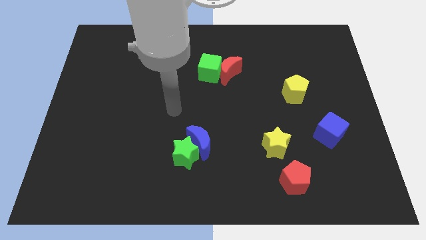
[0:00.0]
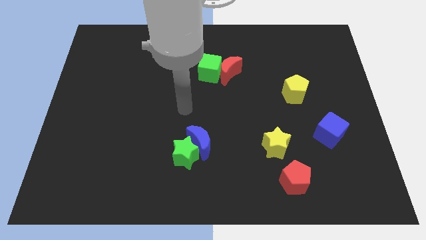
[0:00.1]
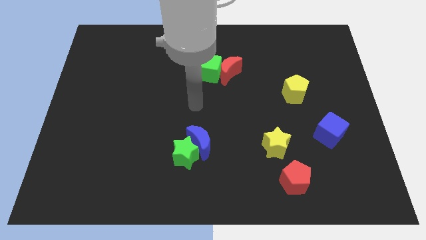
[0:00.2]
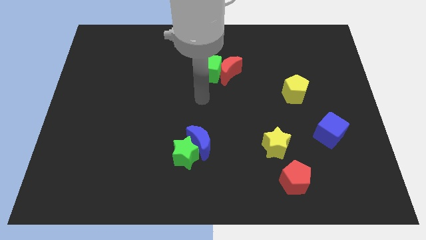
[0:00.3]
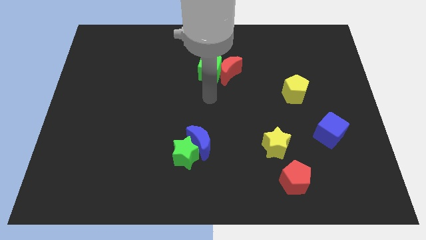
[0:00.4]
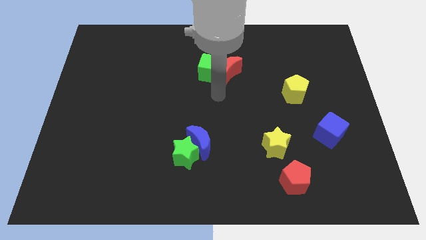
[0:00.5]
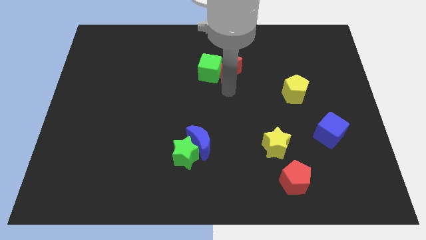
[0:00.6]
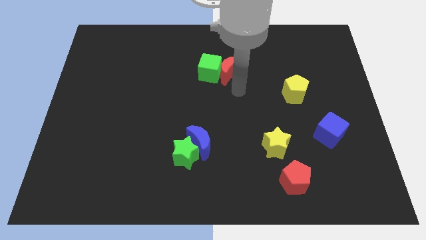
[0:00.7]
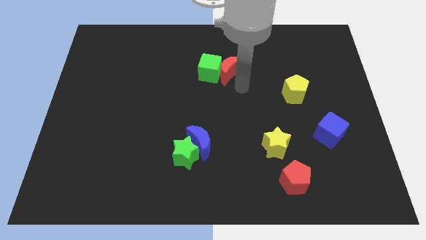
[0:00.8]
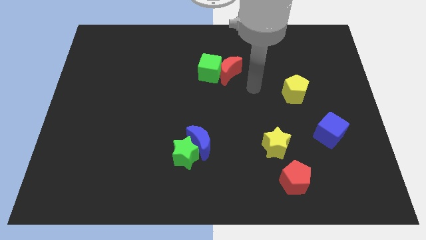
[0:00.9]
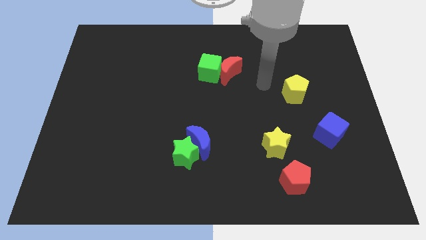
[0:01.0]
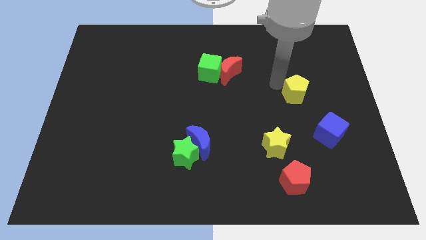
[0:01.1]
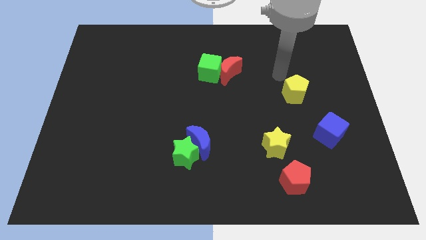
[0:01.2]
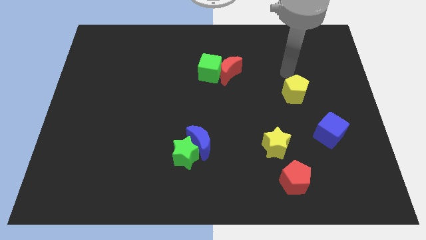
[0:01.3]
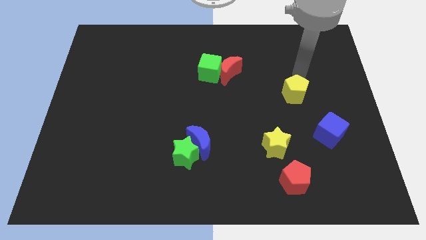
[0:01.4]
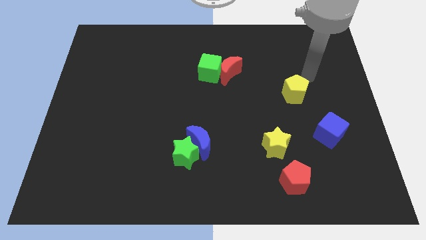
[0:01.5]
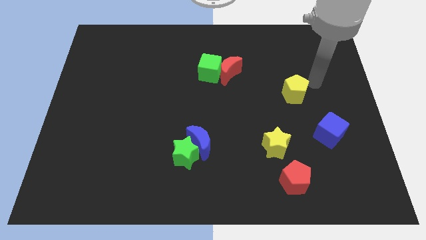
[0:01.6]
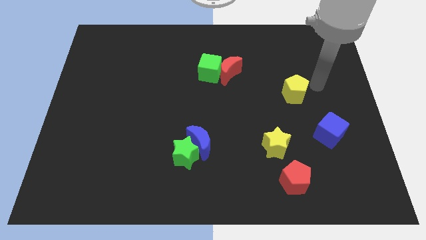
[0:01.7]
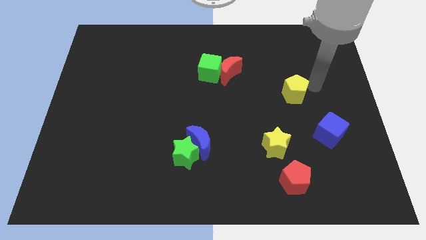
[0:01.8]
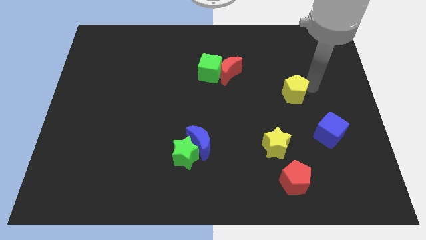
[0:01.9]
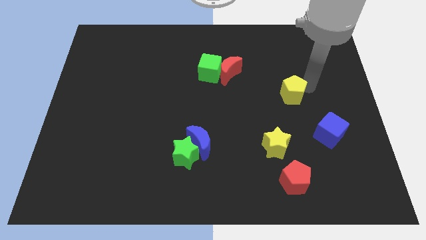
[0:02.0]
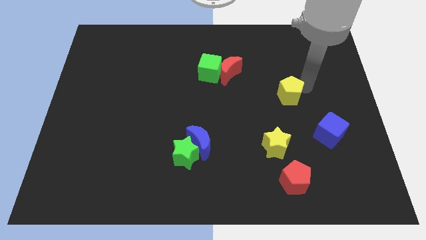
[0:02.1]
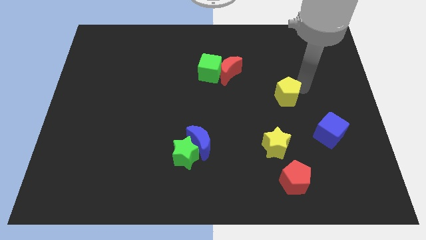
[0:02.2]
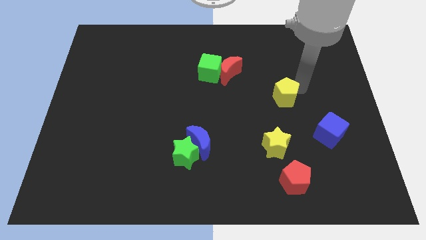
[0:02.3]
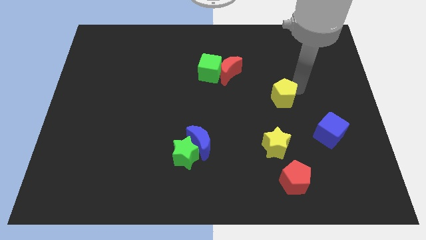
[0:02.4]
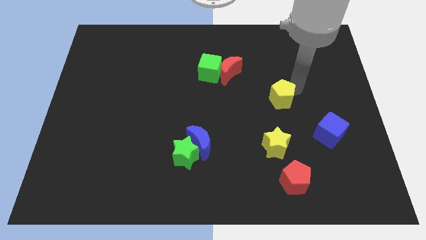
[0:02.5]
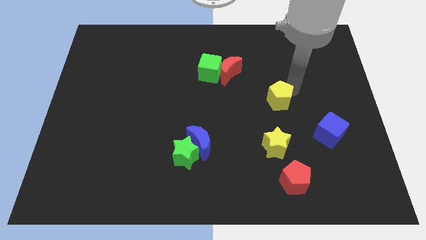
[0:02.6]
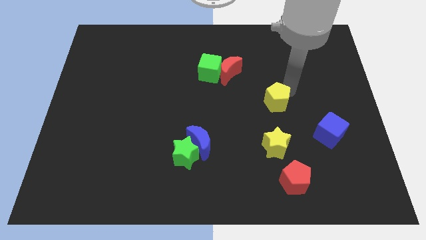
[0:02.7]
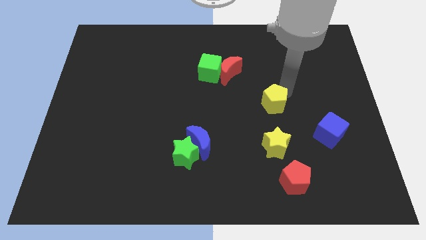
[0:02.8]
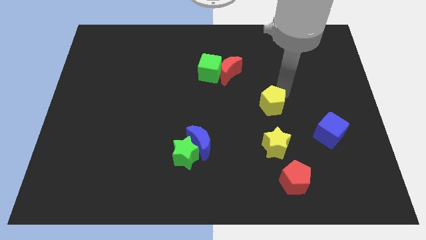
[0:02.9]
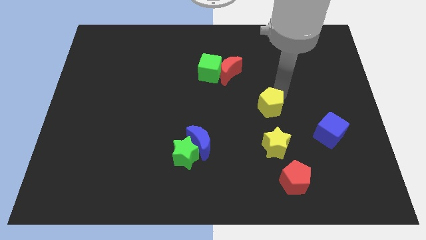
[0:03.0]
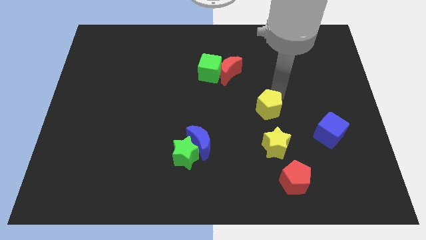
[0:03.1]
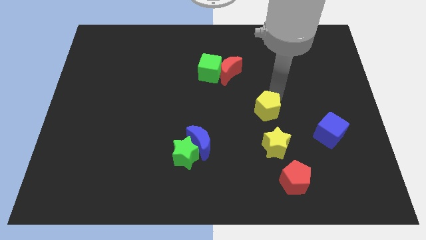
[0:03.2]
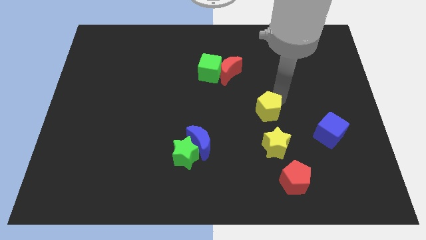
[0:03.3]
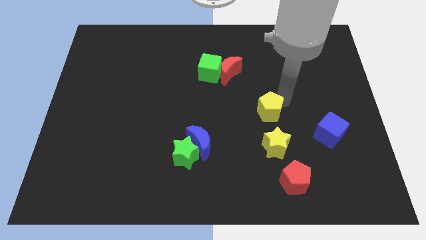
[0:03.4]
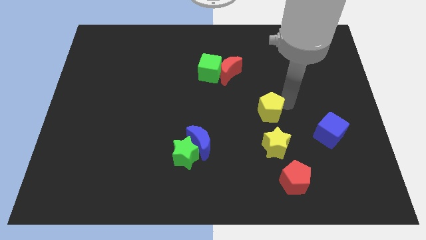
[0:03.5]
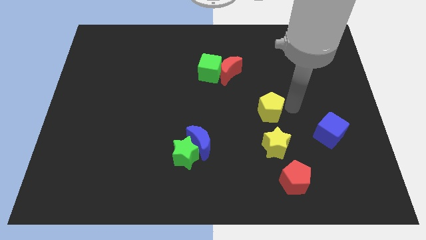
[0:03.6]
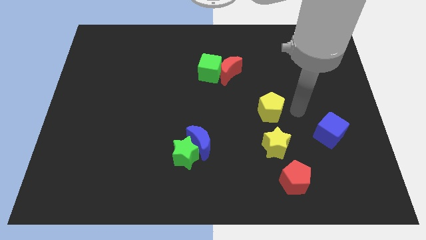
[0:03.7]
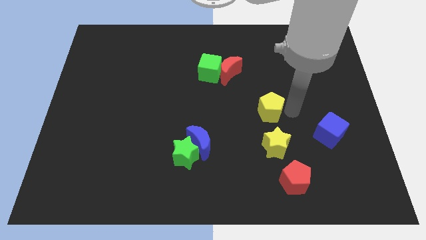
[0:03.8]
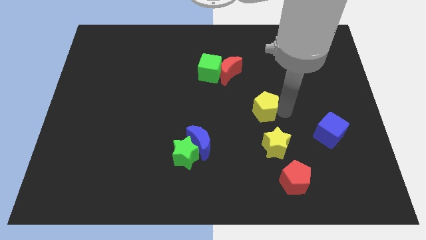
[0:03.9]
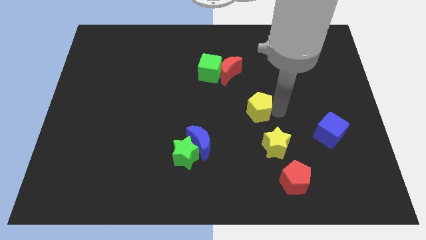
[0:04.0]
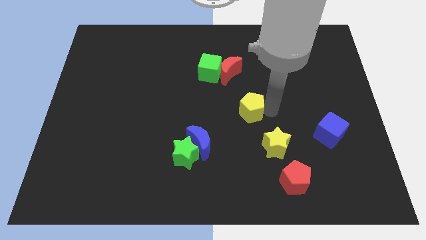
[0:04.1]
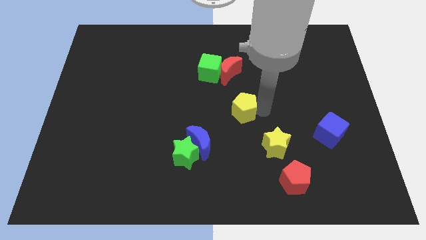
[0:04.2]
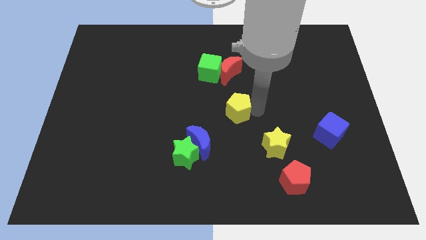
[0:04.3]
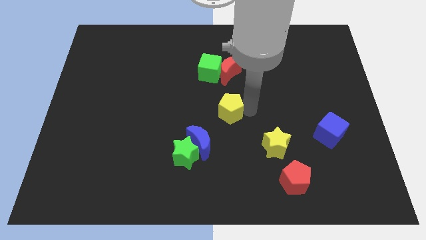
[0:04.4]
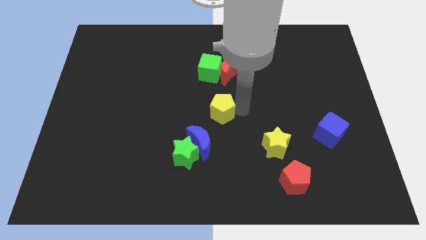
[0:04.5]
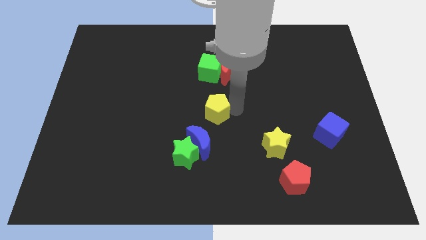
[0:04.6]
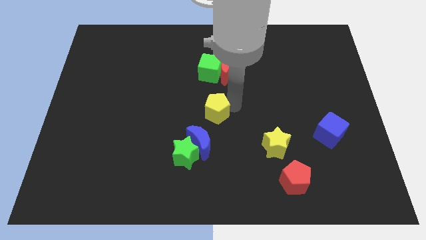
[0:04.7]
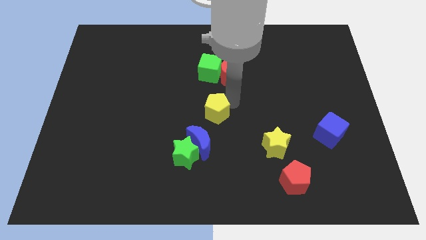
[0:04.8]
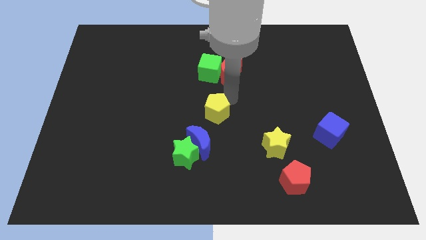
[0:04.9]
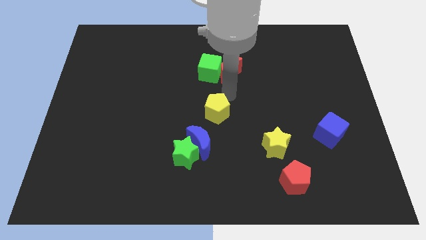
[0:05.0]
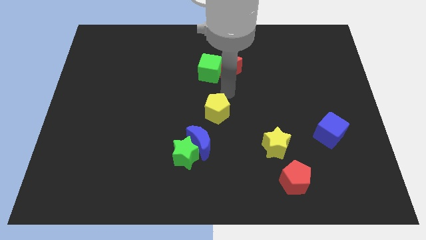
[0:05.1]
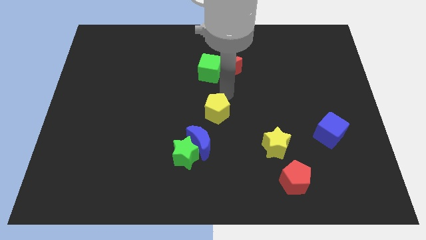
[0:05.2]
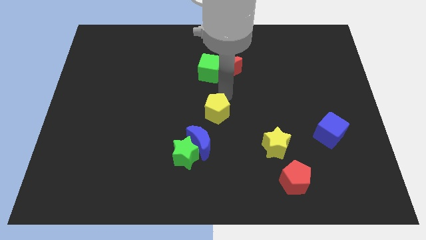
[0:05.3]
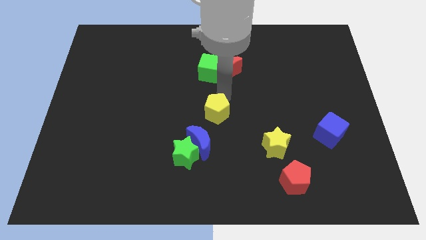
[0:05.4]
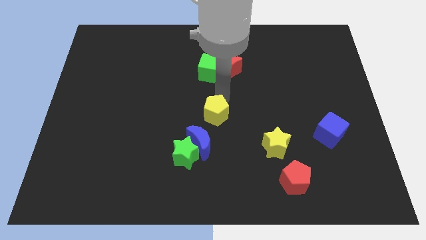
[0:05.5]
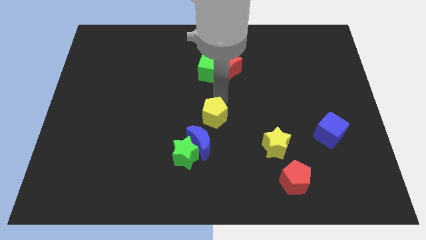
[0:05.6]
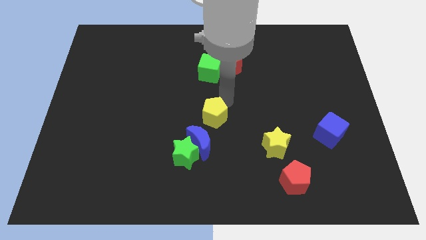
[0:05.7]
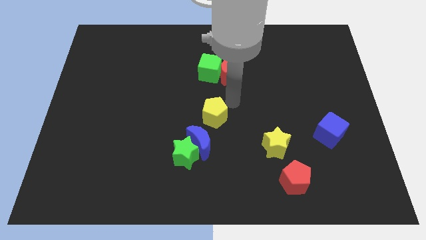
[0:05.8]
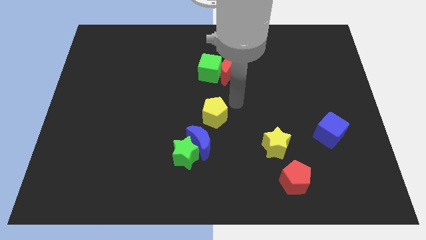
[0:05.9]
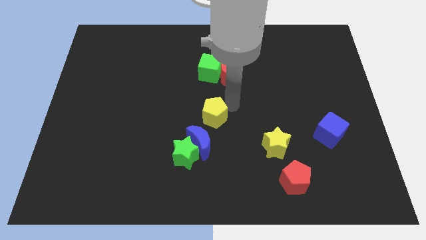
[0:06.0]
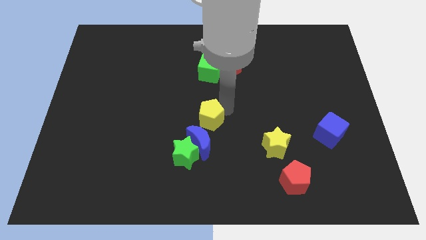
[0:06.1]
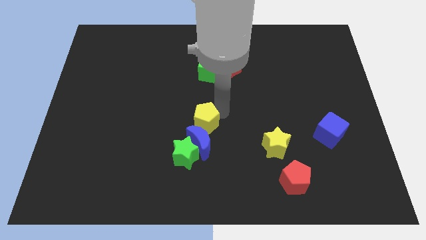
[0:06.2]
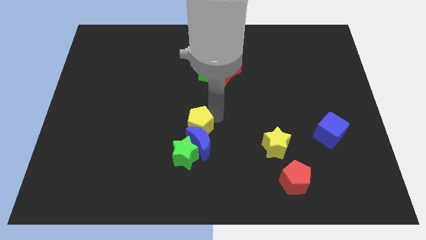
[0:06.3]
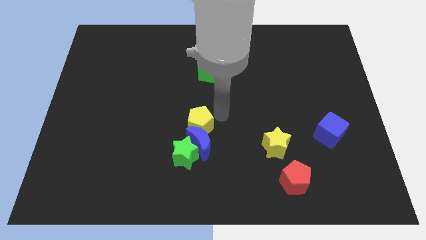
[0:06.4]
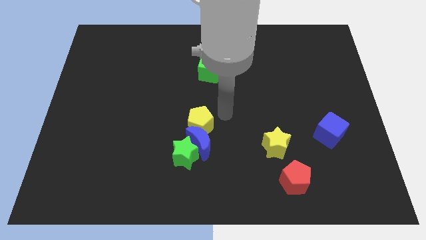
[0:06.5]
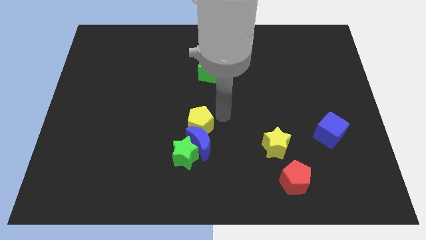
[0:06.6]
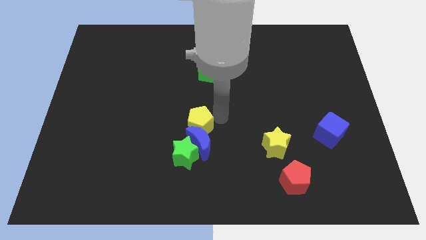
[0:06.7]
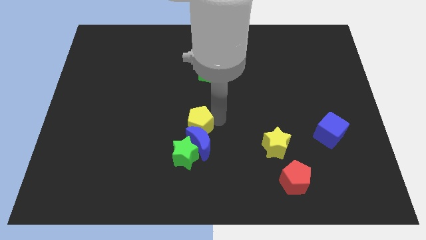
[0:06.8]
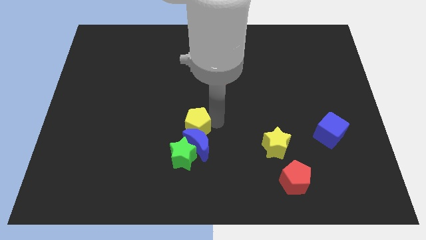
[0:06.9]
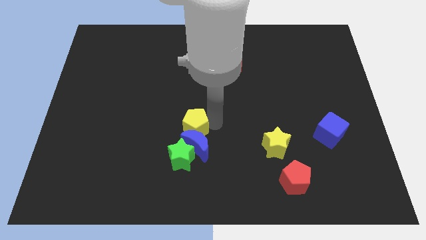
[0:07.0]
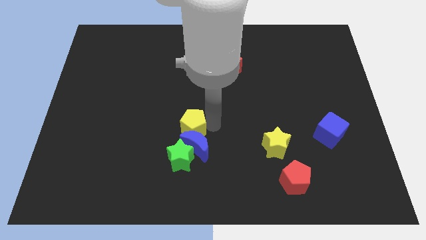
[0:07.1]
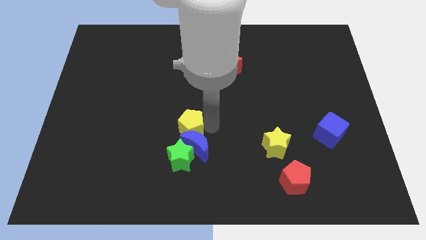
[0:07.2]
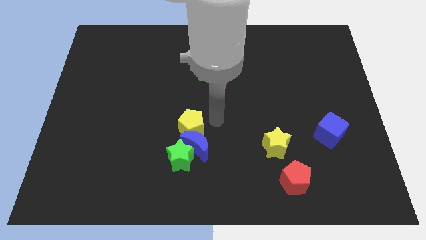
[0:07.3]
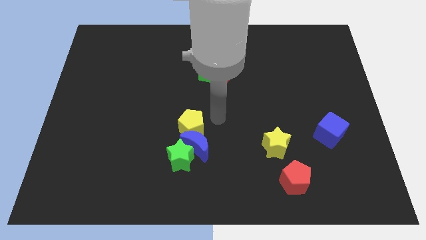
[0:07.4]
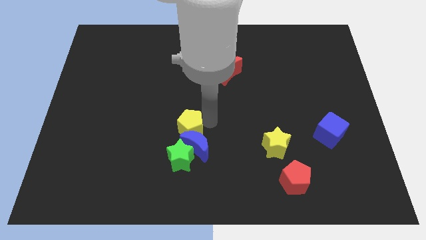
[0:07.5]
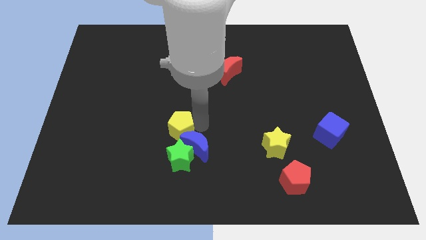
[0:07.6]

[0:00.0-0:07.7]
slide the yellow pentagon just left of the blue moon
